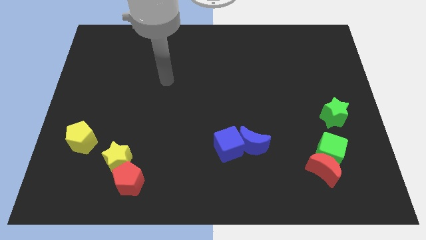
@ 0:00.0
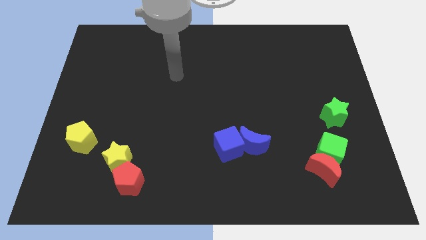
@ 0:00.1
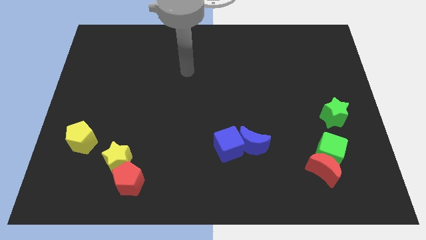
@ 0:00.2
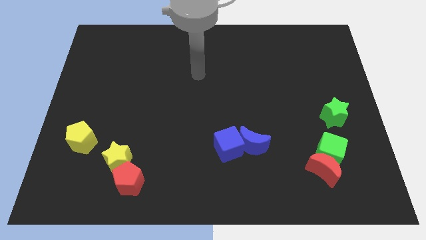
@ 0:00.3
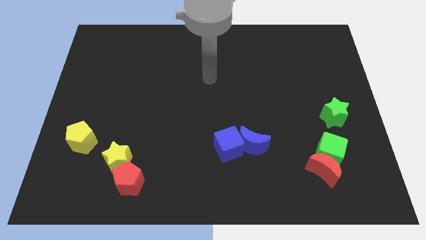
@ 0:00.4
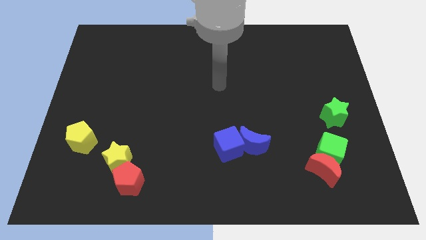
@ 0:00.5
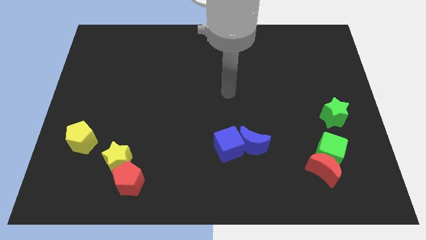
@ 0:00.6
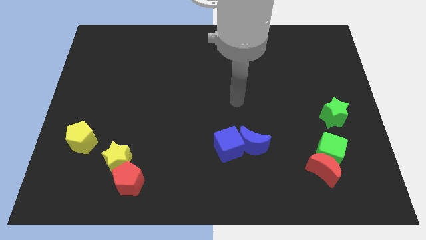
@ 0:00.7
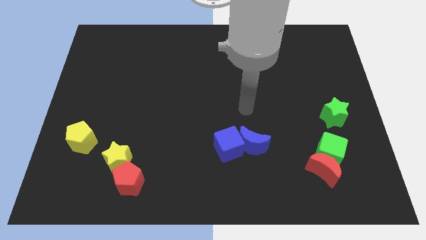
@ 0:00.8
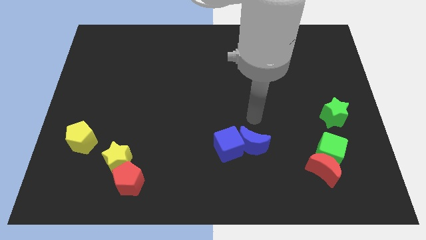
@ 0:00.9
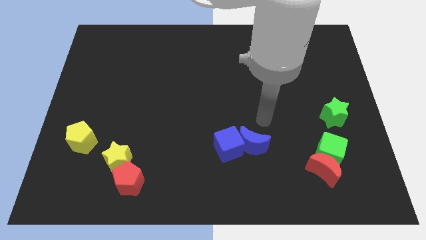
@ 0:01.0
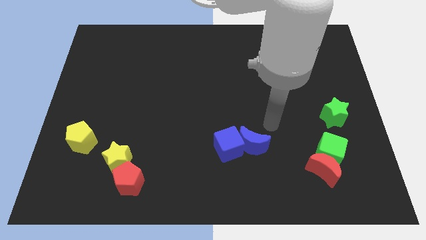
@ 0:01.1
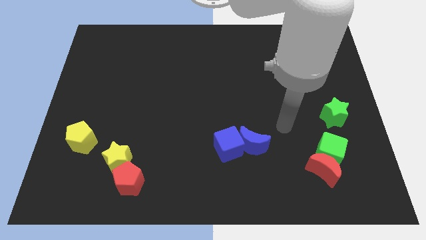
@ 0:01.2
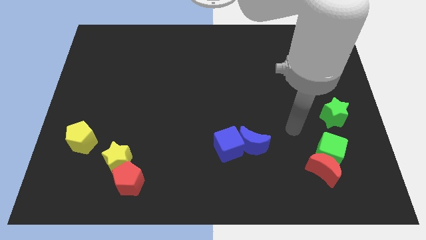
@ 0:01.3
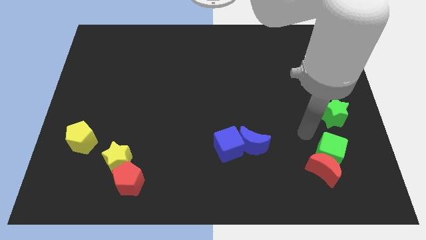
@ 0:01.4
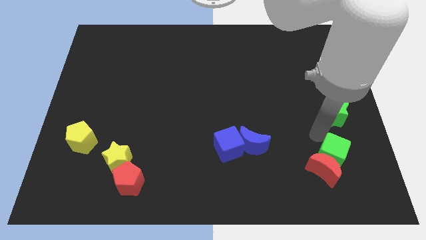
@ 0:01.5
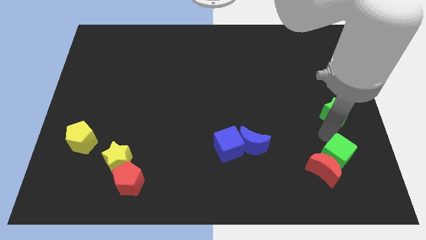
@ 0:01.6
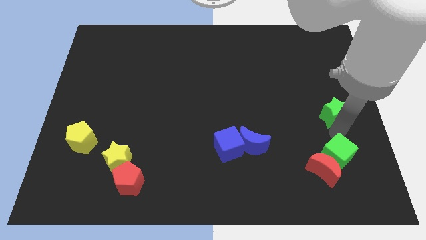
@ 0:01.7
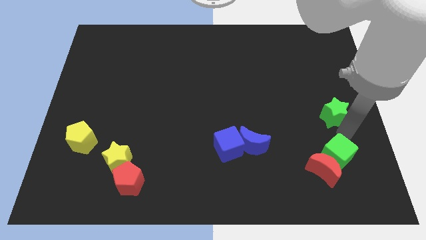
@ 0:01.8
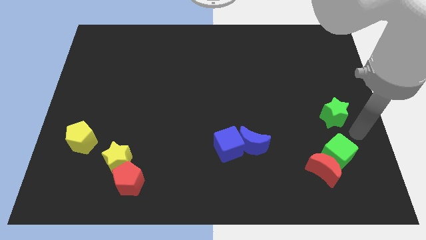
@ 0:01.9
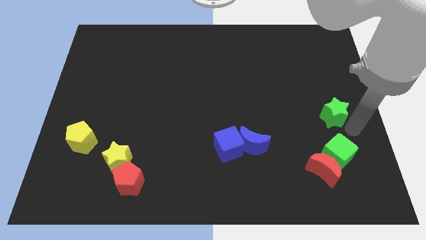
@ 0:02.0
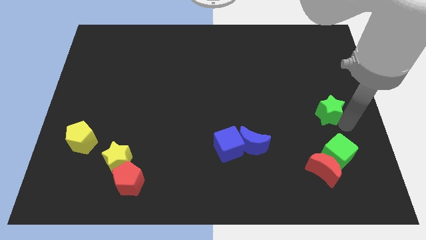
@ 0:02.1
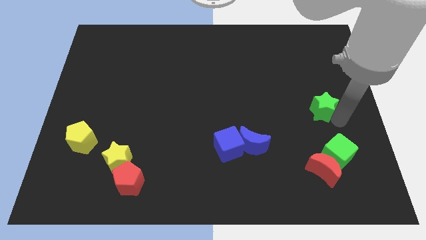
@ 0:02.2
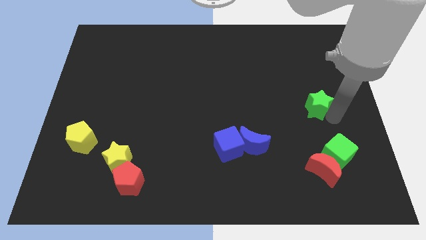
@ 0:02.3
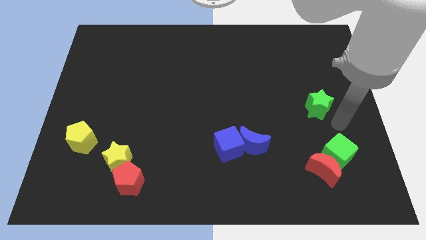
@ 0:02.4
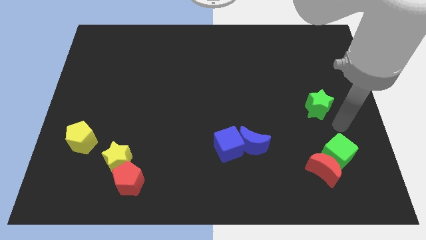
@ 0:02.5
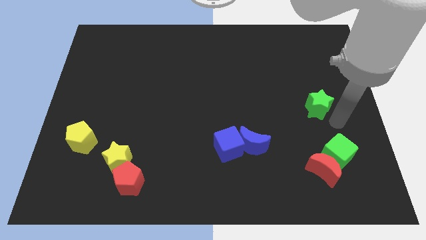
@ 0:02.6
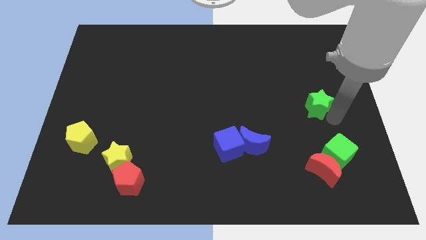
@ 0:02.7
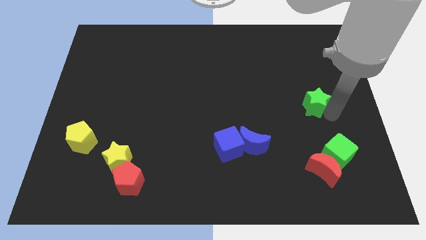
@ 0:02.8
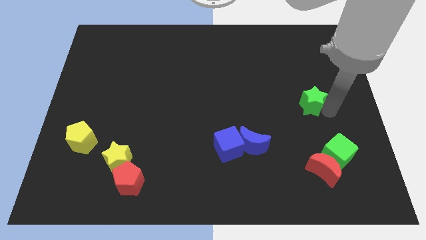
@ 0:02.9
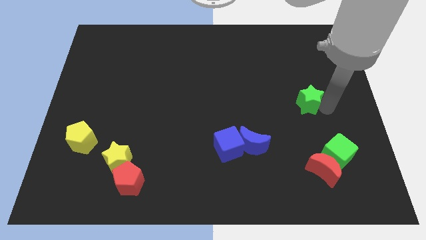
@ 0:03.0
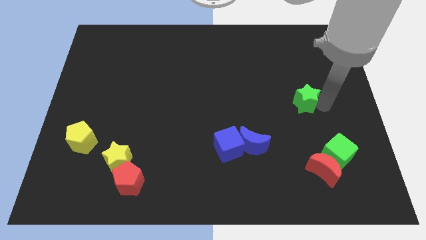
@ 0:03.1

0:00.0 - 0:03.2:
push the green star up and to the left a little

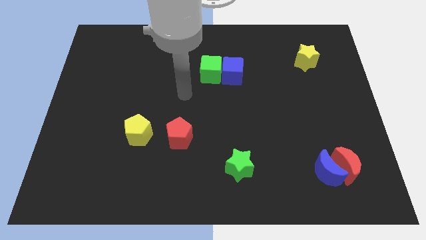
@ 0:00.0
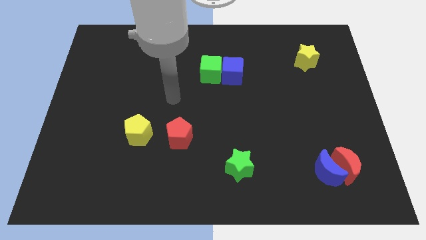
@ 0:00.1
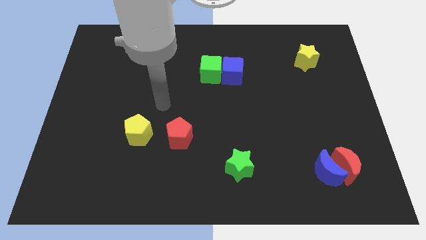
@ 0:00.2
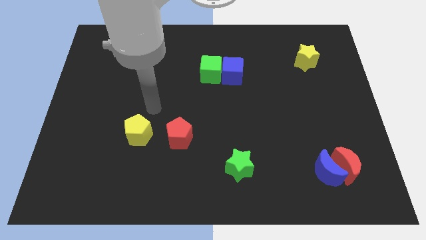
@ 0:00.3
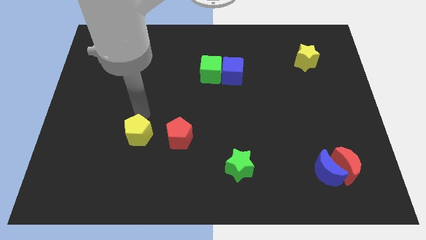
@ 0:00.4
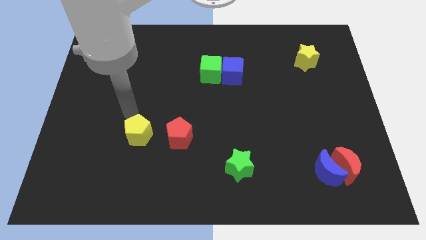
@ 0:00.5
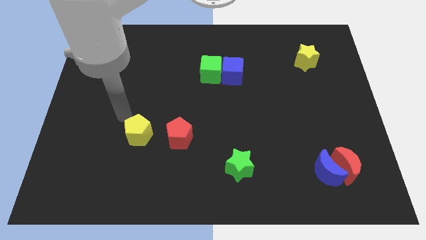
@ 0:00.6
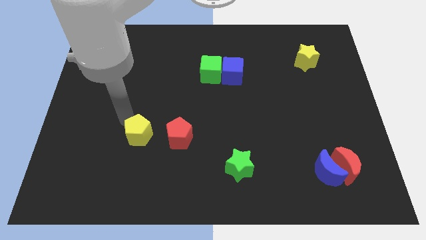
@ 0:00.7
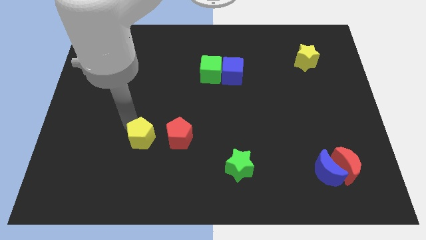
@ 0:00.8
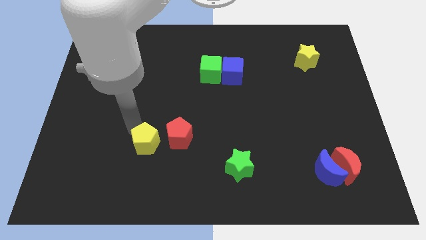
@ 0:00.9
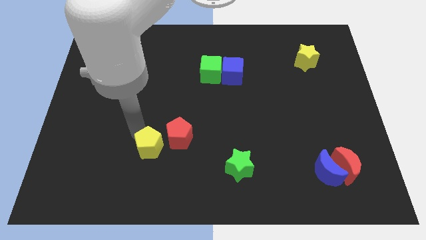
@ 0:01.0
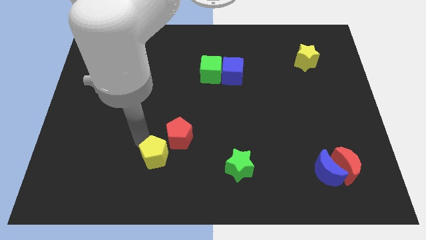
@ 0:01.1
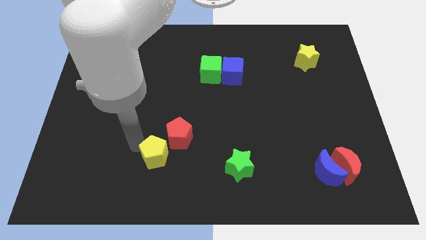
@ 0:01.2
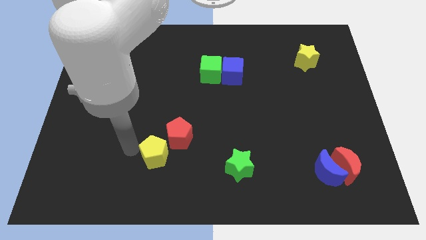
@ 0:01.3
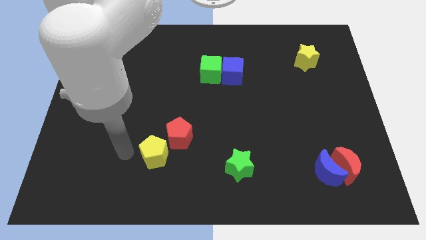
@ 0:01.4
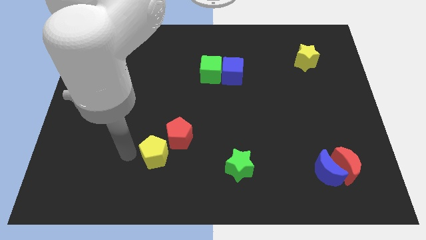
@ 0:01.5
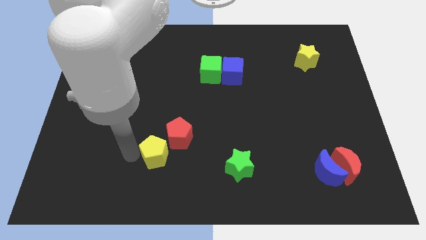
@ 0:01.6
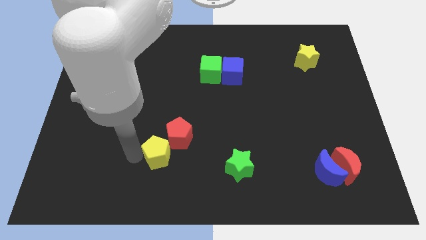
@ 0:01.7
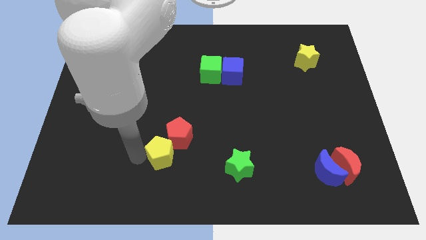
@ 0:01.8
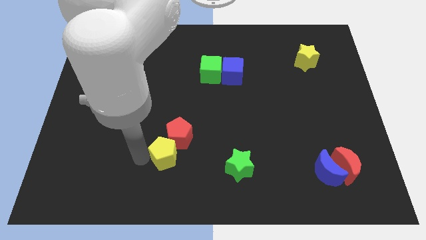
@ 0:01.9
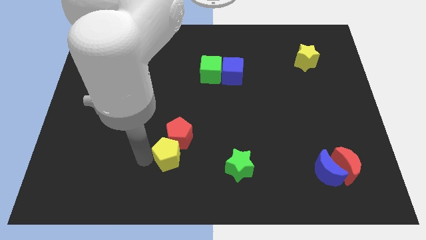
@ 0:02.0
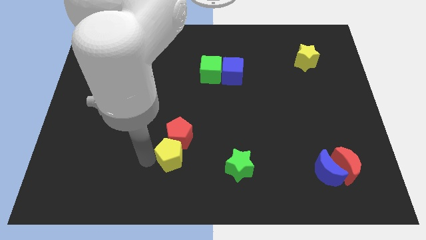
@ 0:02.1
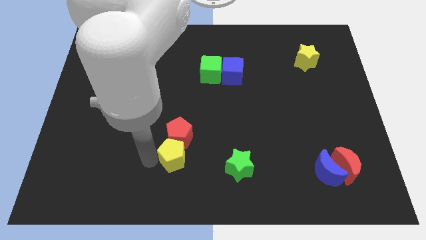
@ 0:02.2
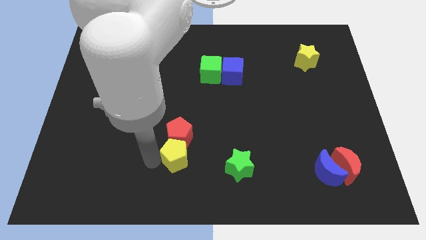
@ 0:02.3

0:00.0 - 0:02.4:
slightly slide the yellow pentagon right

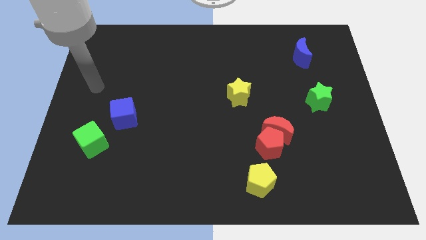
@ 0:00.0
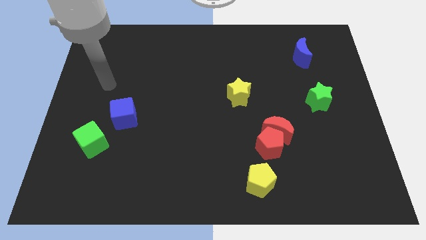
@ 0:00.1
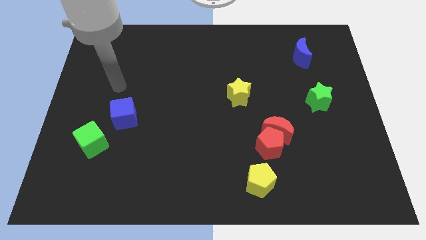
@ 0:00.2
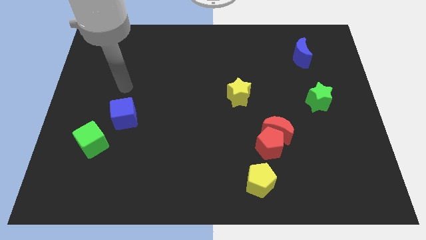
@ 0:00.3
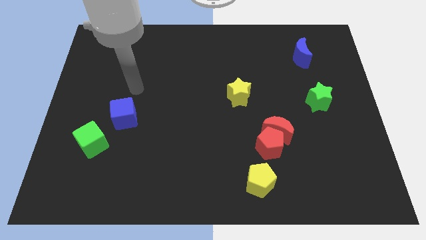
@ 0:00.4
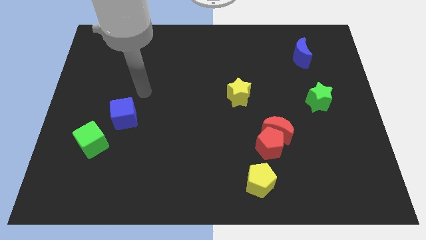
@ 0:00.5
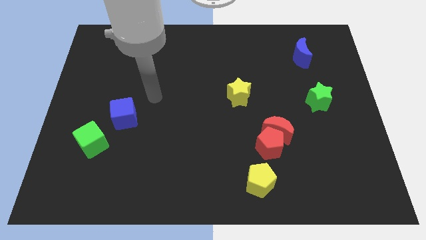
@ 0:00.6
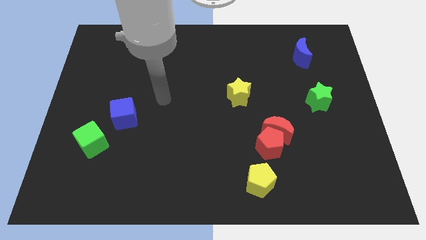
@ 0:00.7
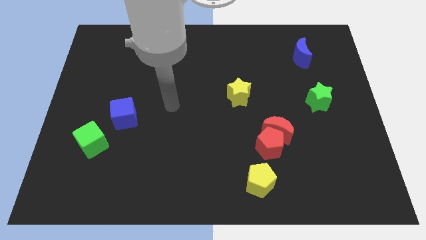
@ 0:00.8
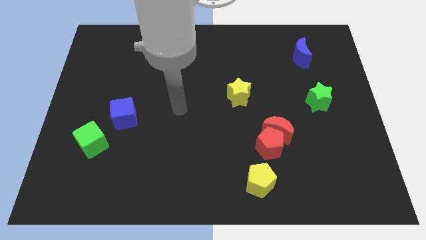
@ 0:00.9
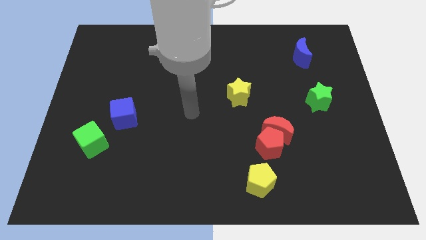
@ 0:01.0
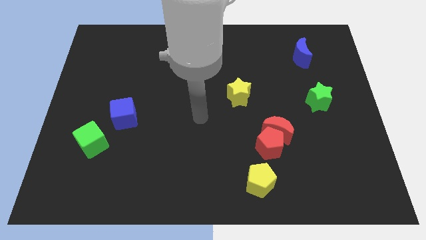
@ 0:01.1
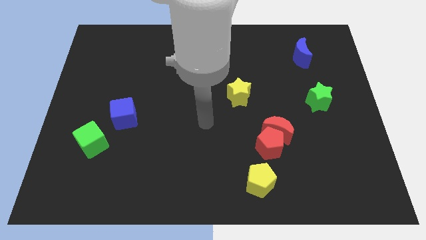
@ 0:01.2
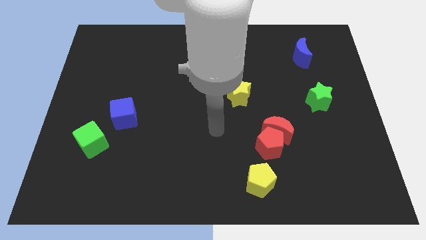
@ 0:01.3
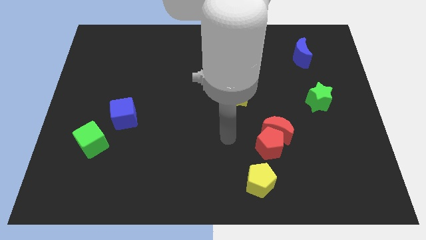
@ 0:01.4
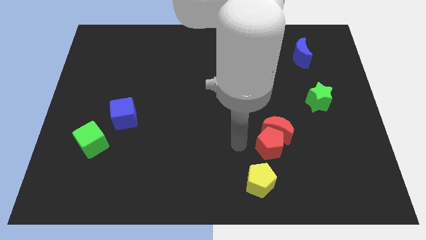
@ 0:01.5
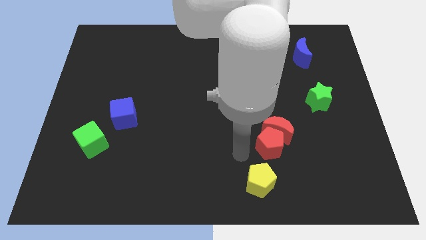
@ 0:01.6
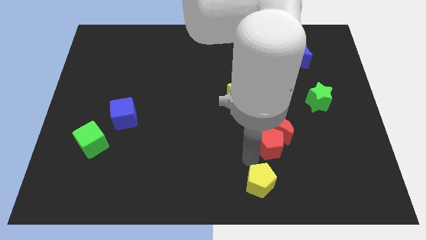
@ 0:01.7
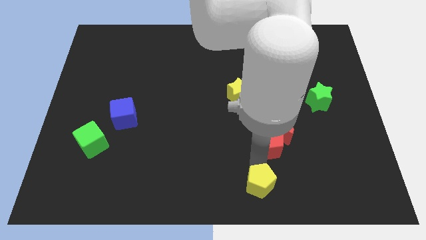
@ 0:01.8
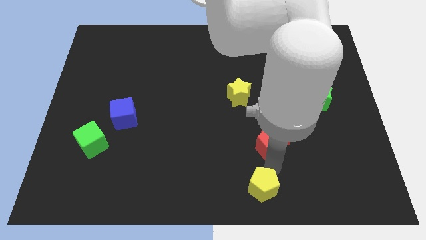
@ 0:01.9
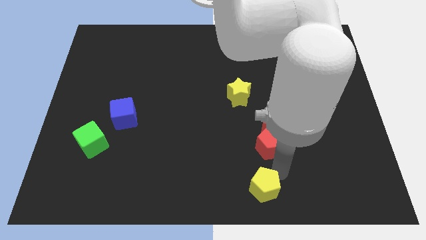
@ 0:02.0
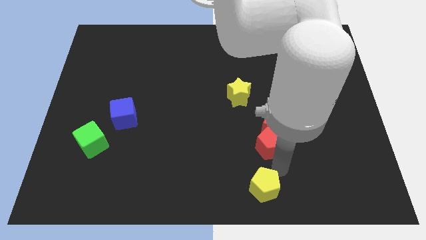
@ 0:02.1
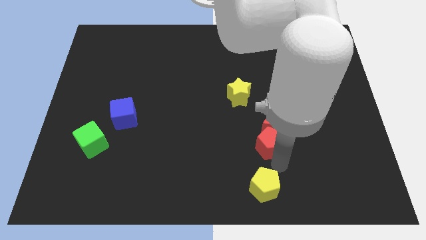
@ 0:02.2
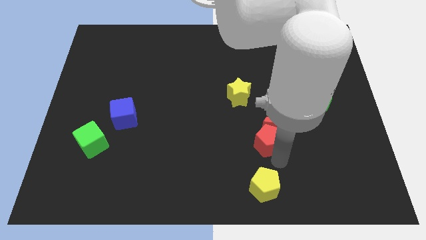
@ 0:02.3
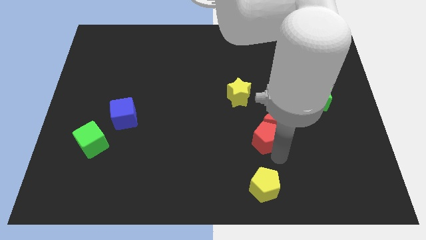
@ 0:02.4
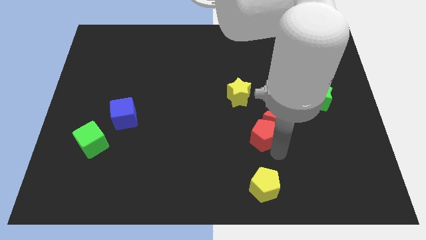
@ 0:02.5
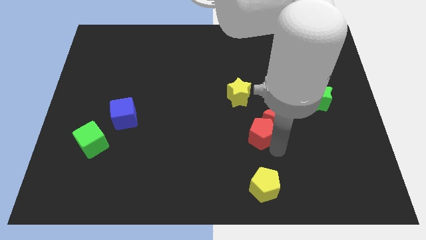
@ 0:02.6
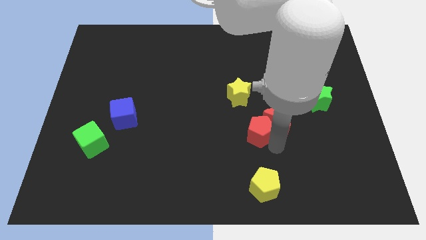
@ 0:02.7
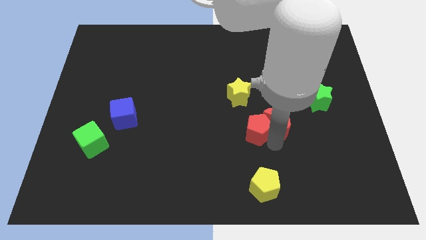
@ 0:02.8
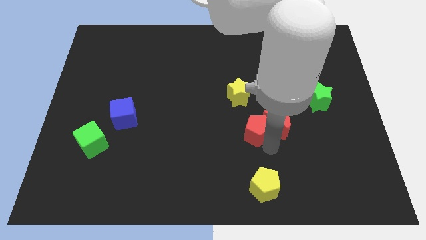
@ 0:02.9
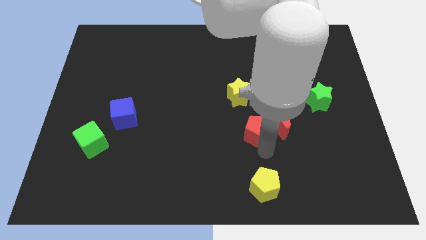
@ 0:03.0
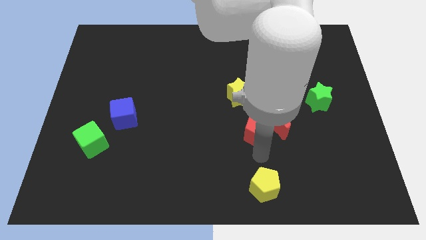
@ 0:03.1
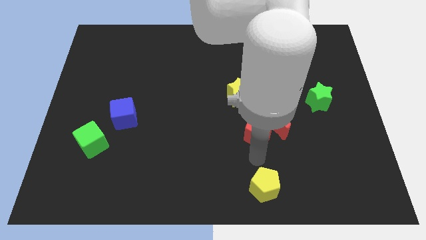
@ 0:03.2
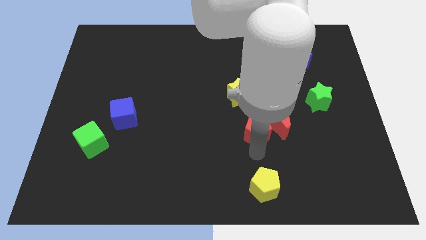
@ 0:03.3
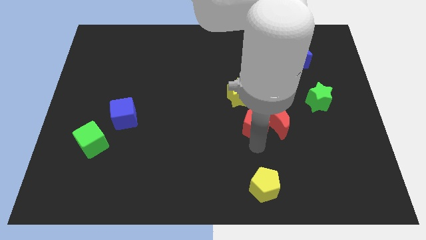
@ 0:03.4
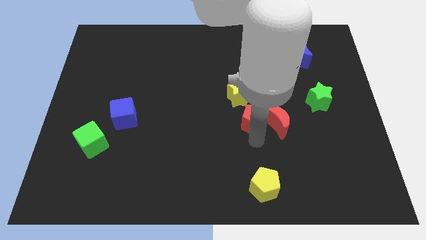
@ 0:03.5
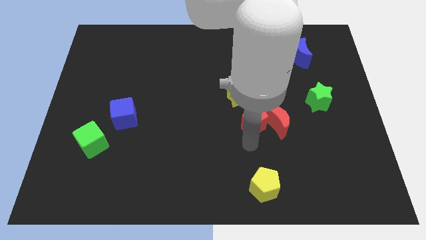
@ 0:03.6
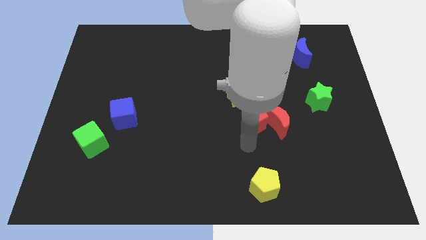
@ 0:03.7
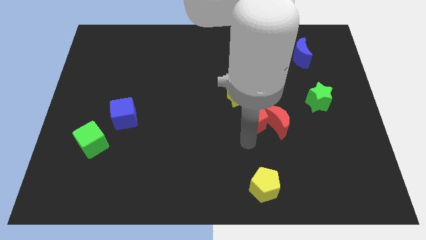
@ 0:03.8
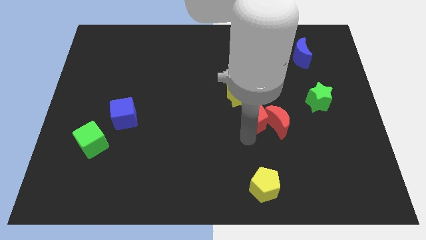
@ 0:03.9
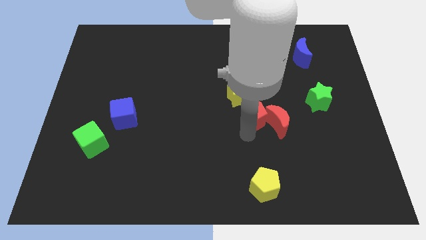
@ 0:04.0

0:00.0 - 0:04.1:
move the red pentagon up a little
